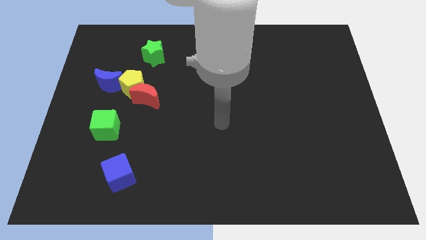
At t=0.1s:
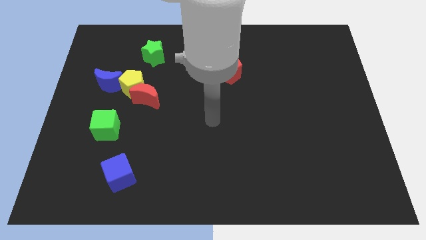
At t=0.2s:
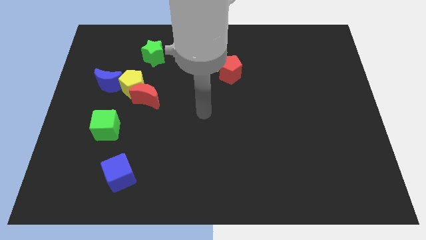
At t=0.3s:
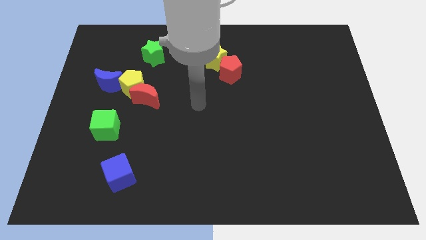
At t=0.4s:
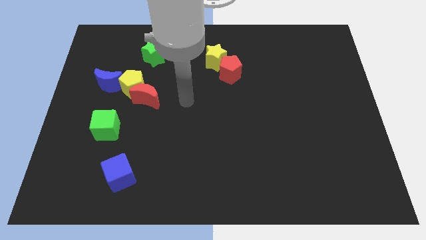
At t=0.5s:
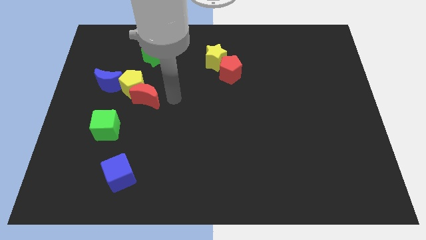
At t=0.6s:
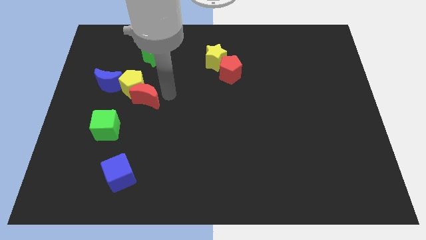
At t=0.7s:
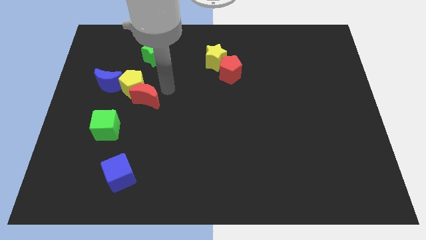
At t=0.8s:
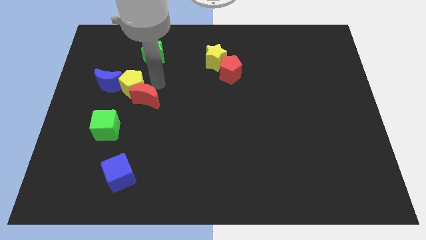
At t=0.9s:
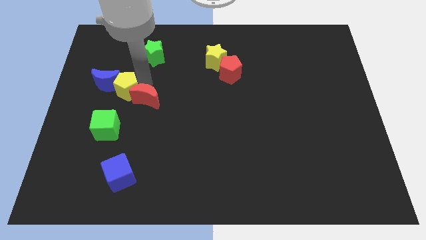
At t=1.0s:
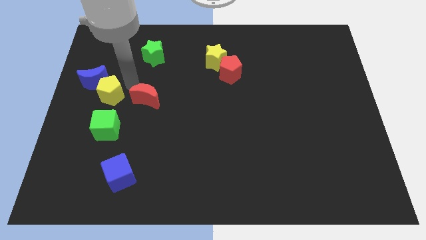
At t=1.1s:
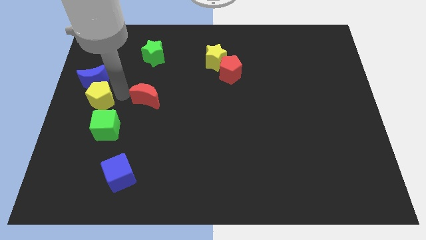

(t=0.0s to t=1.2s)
move the red moon away from the yellow pentagon

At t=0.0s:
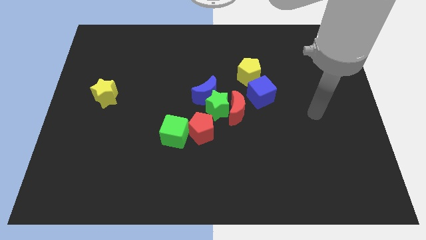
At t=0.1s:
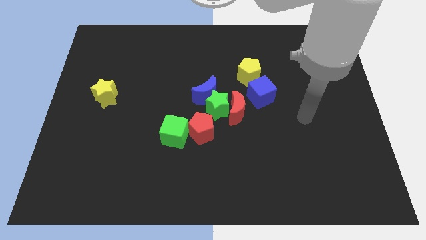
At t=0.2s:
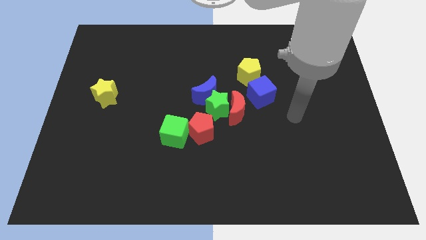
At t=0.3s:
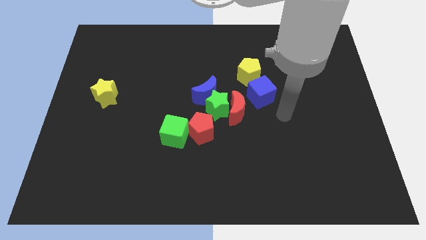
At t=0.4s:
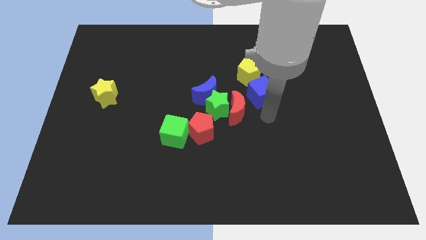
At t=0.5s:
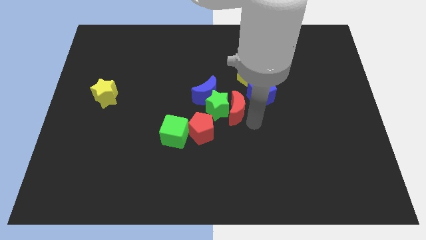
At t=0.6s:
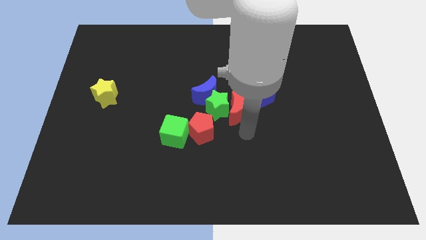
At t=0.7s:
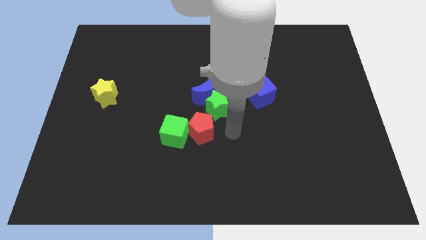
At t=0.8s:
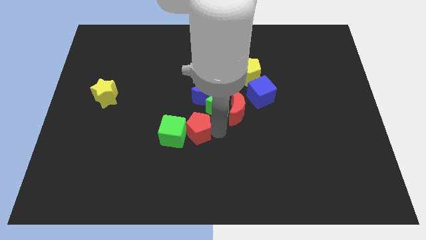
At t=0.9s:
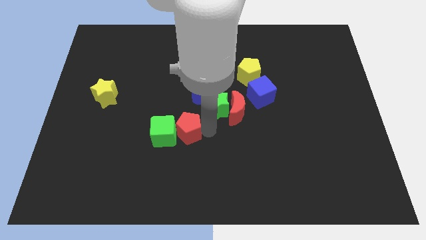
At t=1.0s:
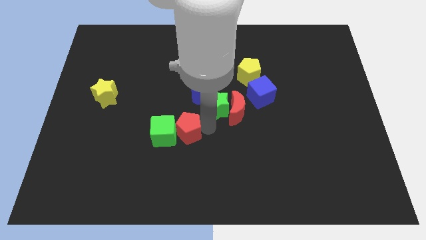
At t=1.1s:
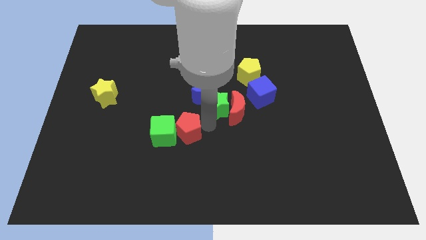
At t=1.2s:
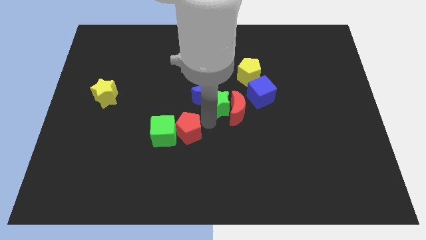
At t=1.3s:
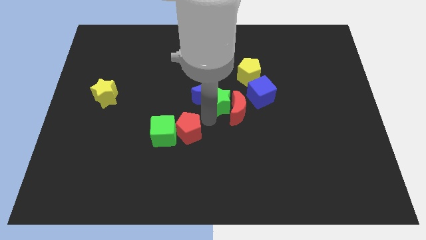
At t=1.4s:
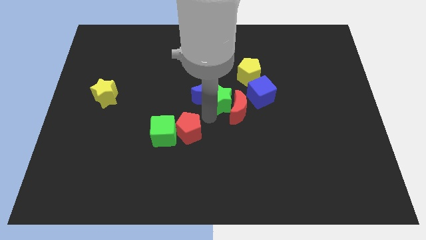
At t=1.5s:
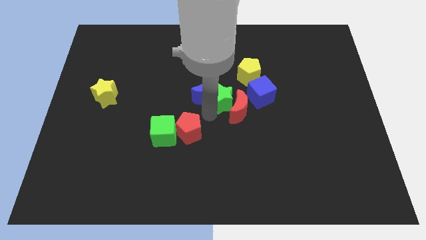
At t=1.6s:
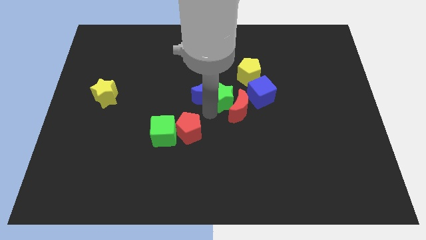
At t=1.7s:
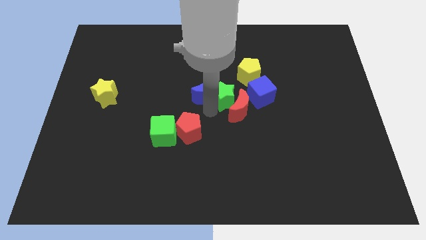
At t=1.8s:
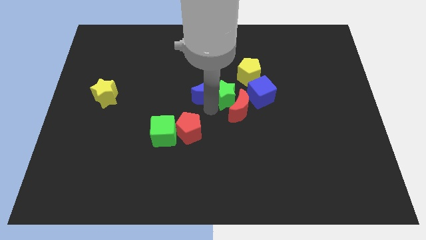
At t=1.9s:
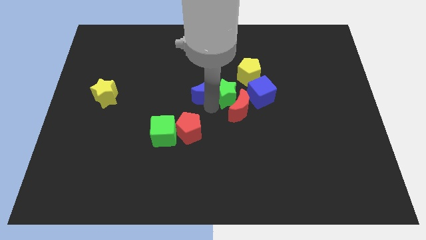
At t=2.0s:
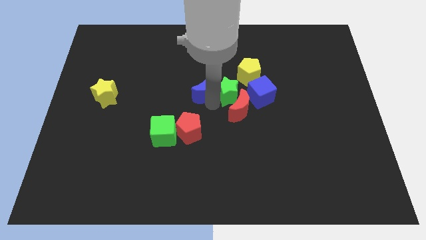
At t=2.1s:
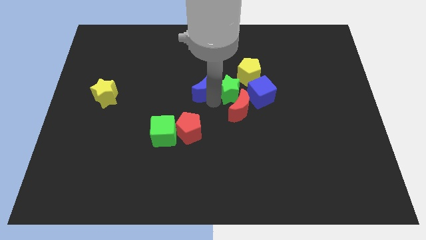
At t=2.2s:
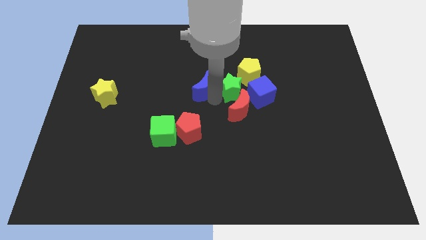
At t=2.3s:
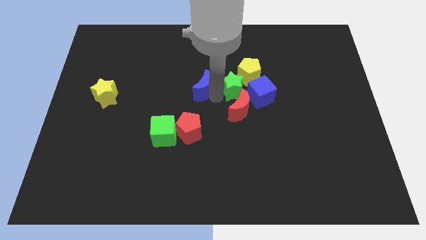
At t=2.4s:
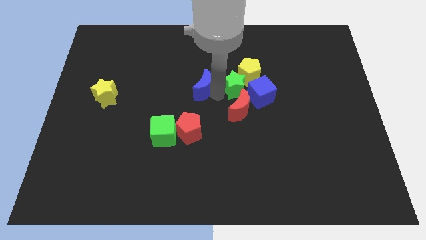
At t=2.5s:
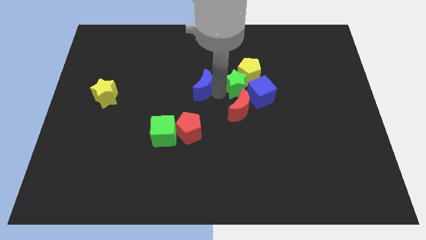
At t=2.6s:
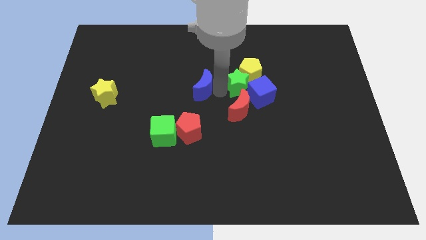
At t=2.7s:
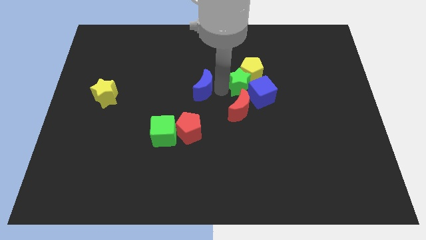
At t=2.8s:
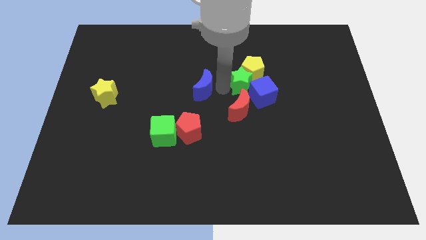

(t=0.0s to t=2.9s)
move the green star away from the blue moon, red moon, and red pentagon

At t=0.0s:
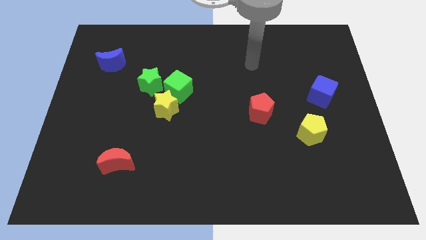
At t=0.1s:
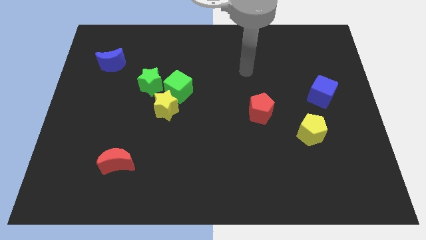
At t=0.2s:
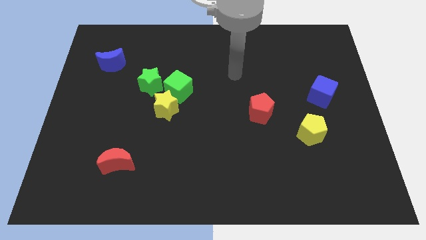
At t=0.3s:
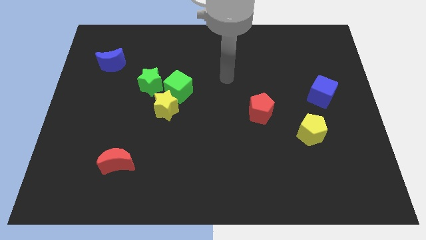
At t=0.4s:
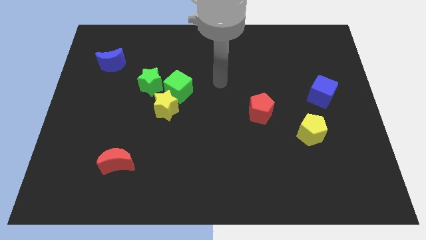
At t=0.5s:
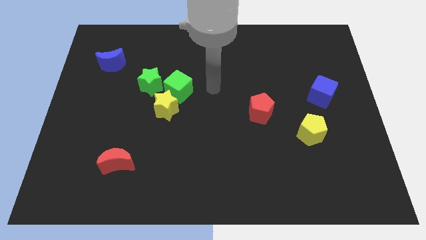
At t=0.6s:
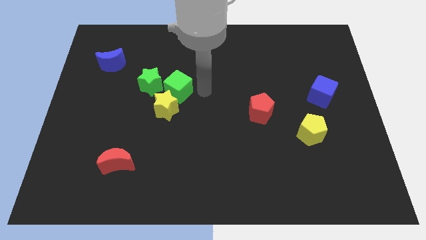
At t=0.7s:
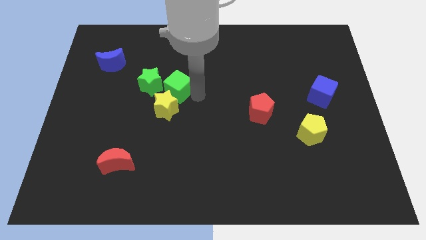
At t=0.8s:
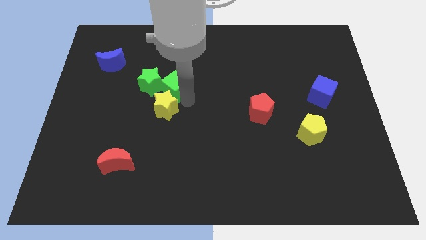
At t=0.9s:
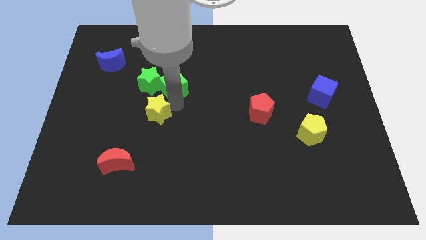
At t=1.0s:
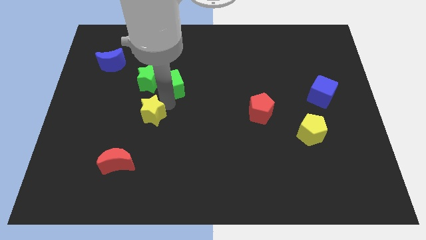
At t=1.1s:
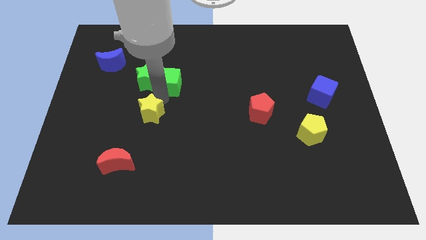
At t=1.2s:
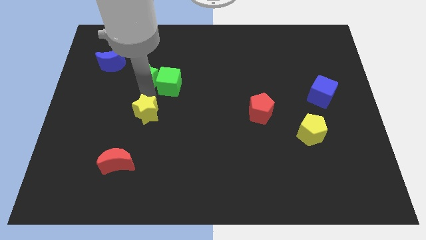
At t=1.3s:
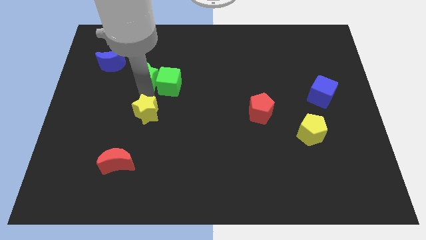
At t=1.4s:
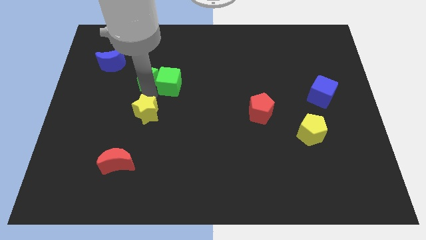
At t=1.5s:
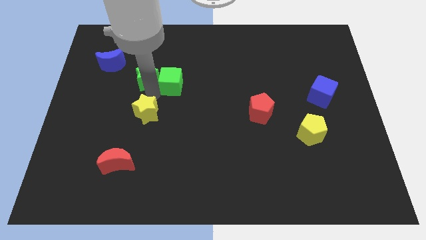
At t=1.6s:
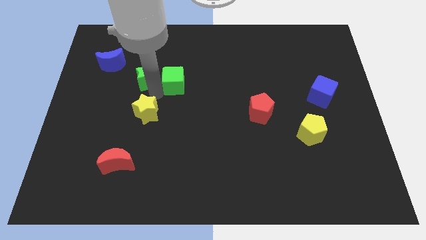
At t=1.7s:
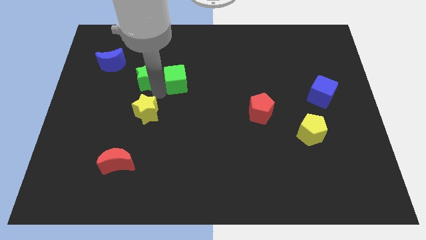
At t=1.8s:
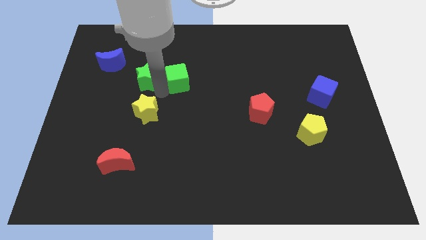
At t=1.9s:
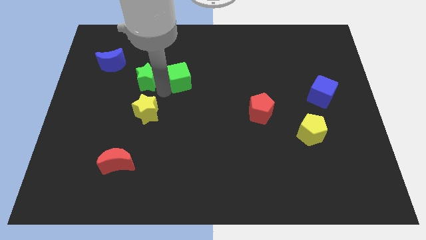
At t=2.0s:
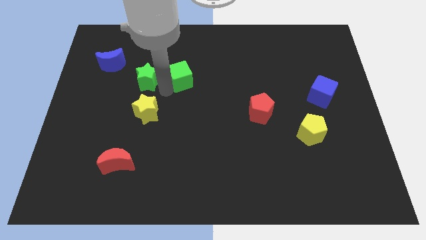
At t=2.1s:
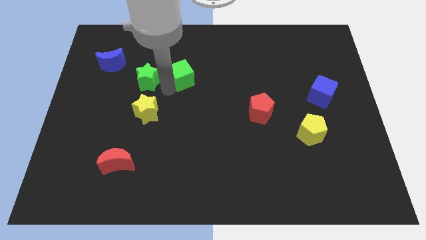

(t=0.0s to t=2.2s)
pull the green cube apart from the yellow star and green star

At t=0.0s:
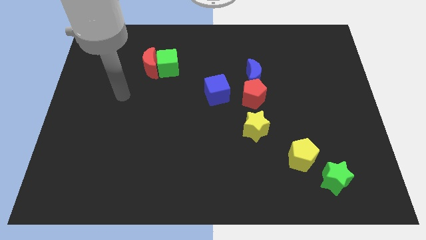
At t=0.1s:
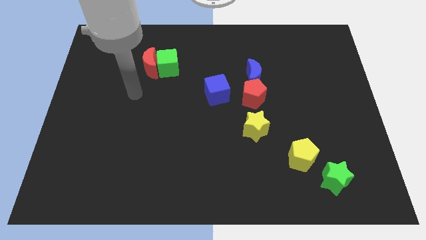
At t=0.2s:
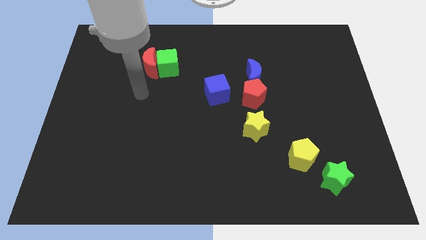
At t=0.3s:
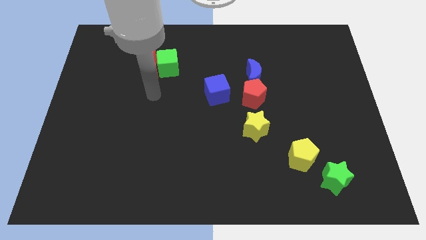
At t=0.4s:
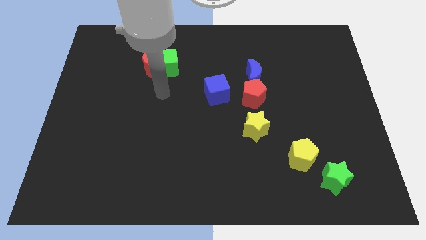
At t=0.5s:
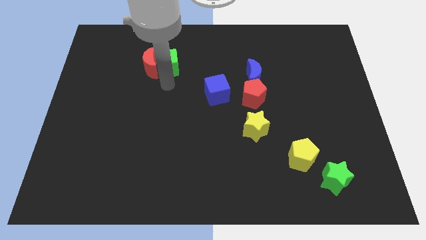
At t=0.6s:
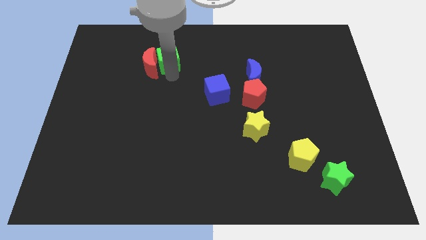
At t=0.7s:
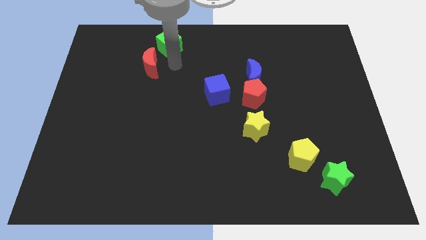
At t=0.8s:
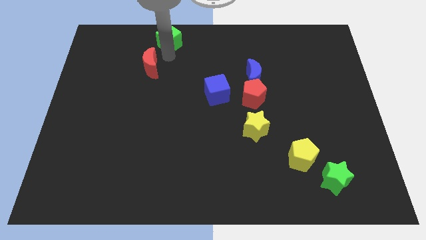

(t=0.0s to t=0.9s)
pull the red moon apart from the green cube

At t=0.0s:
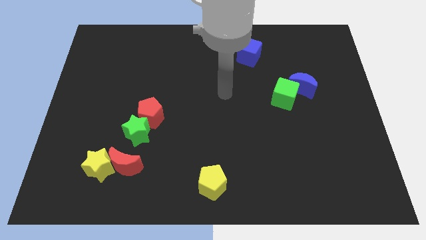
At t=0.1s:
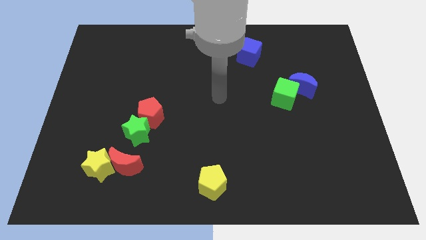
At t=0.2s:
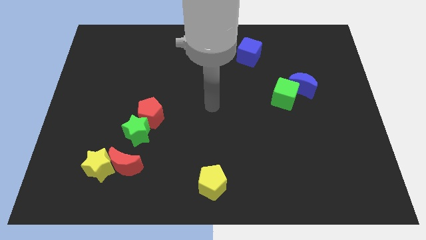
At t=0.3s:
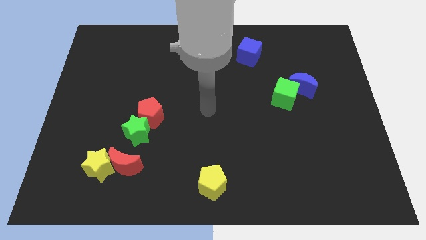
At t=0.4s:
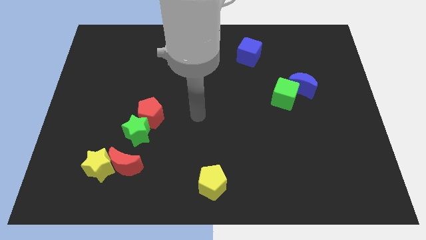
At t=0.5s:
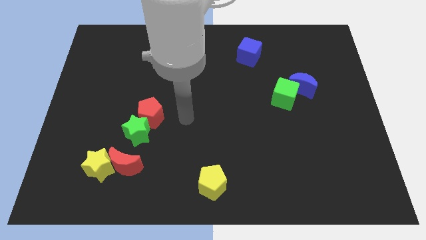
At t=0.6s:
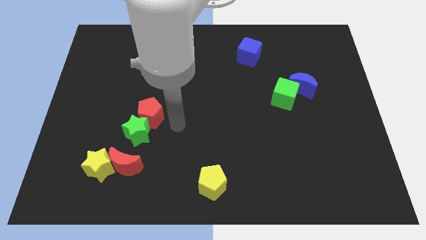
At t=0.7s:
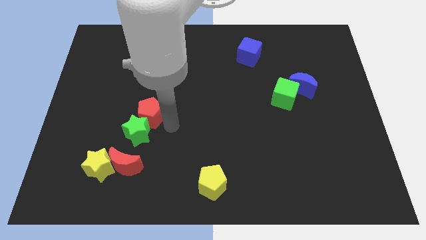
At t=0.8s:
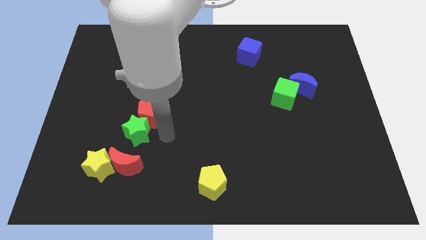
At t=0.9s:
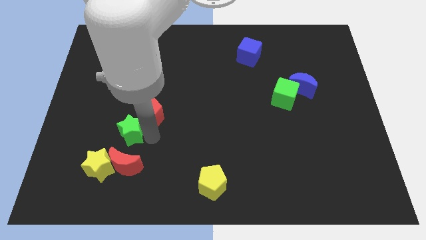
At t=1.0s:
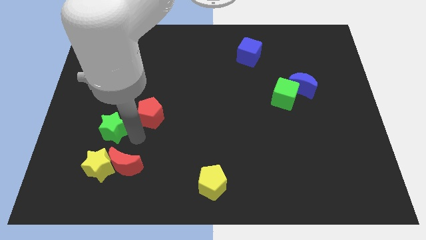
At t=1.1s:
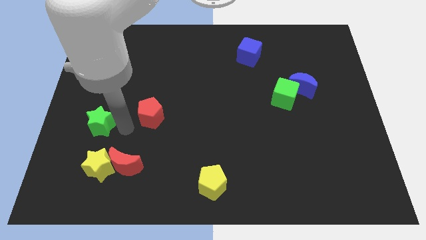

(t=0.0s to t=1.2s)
move the red pentagon away from the green star

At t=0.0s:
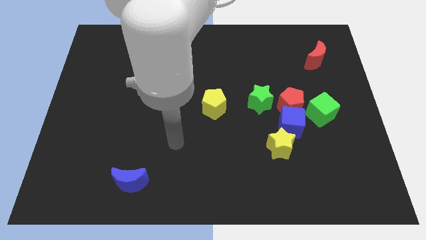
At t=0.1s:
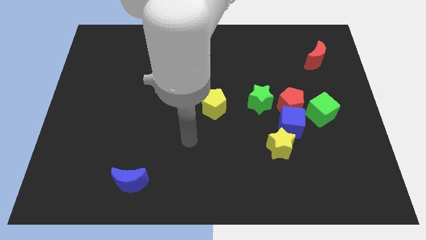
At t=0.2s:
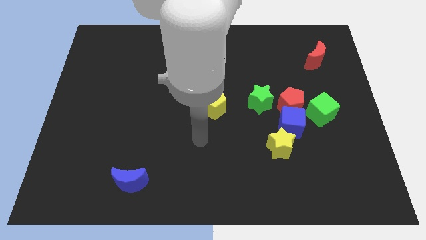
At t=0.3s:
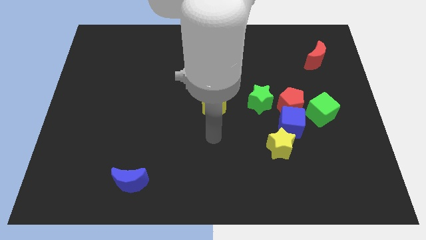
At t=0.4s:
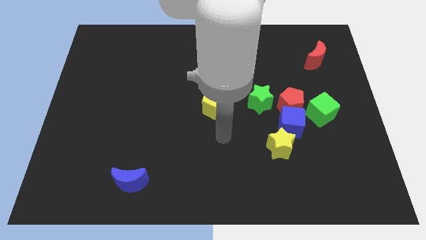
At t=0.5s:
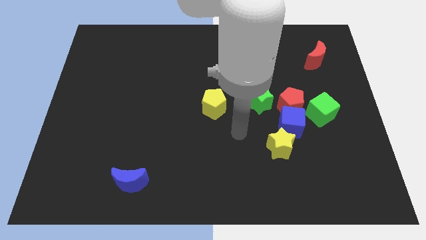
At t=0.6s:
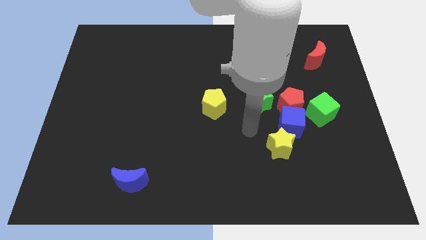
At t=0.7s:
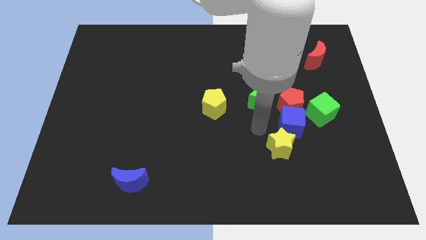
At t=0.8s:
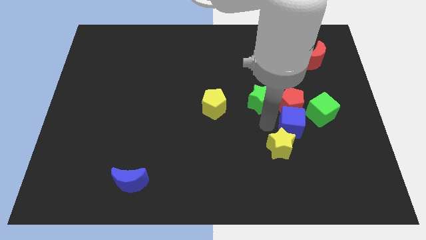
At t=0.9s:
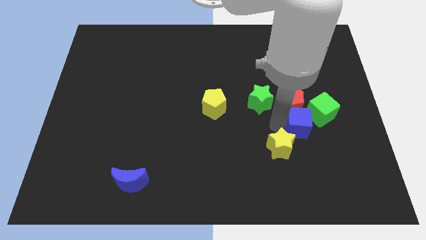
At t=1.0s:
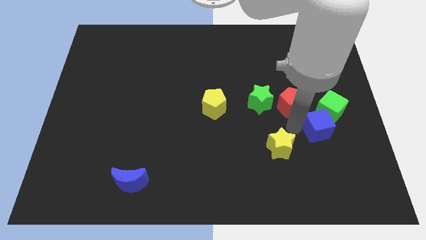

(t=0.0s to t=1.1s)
move the yellow star away from the blue cube
